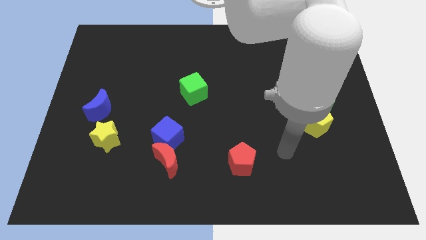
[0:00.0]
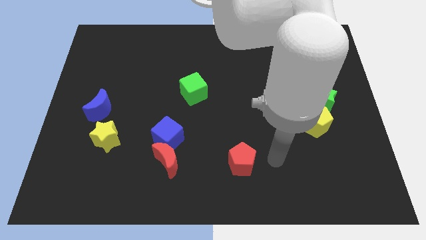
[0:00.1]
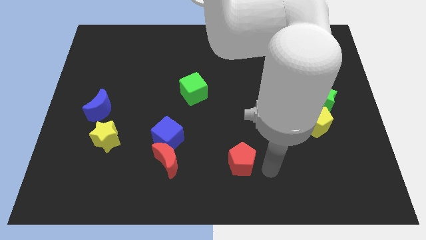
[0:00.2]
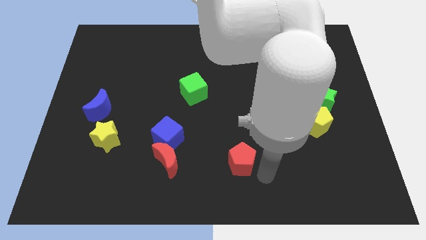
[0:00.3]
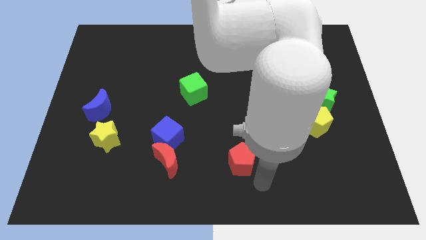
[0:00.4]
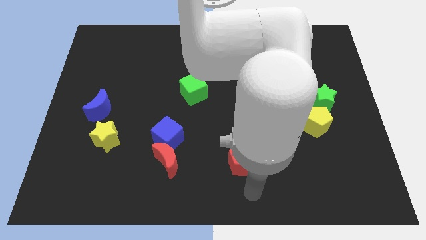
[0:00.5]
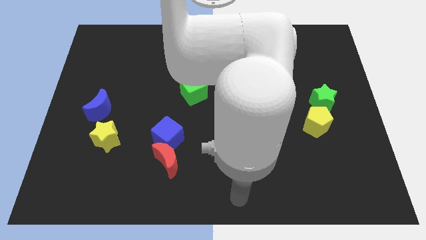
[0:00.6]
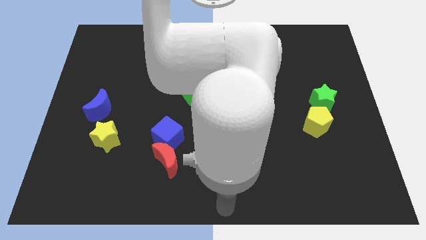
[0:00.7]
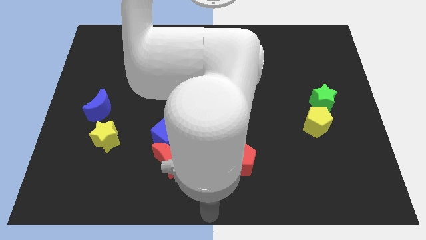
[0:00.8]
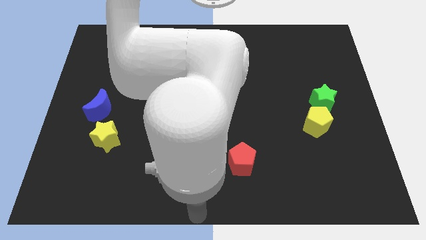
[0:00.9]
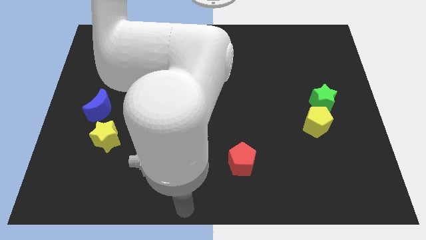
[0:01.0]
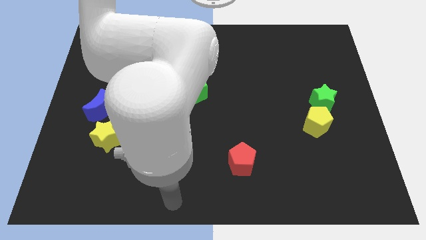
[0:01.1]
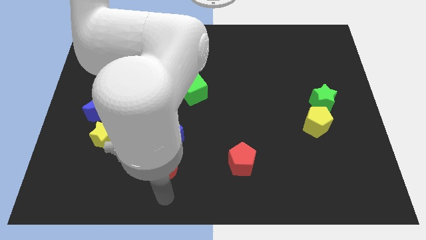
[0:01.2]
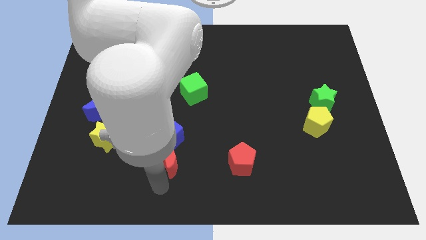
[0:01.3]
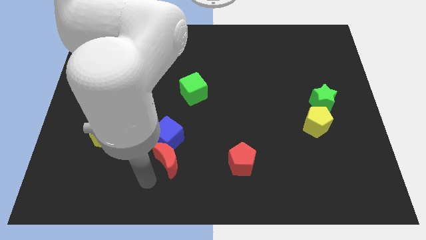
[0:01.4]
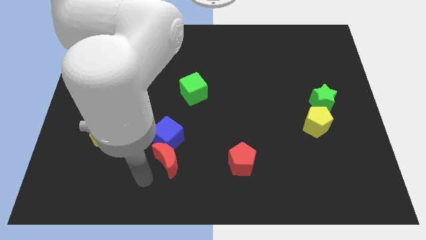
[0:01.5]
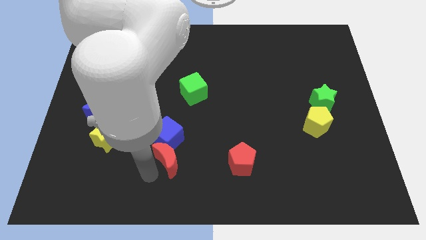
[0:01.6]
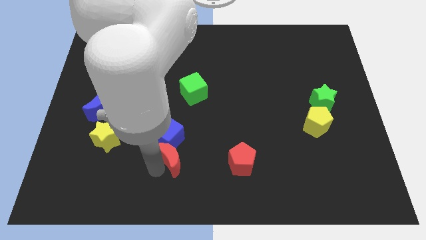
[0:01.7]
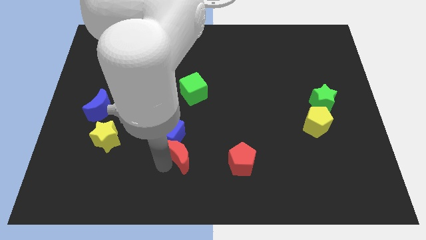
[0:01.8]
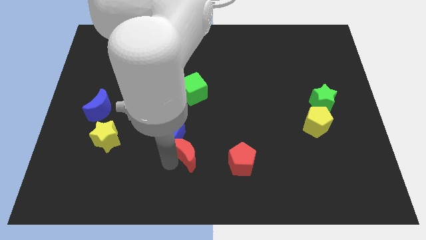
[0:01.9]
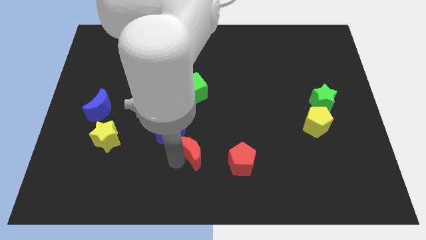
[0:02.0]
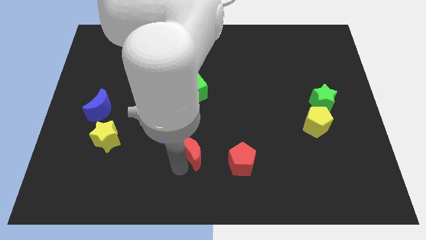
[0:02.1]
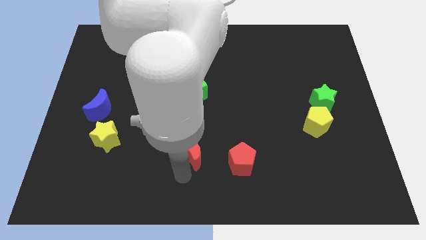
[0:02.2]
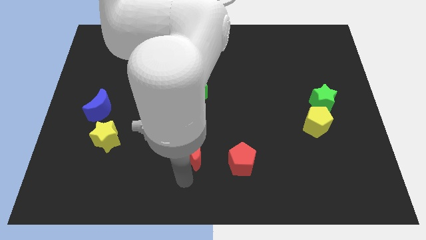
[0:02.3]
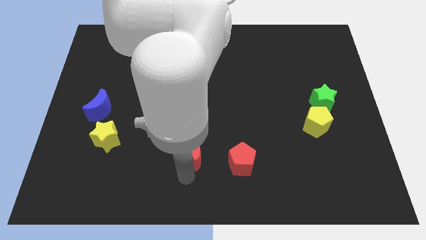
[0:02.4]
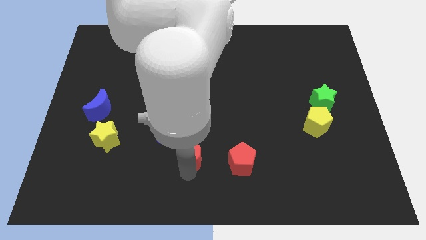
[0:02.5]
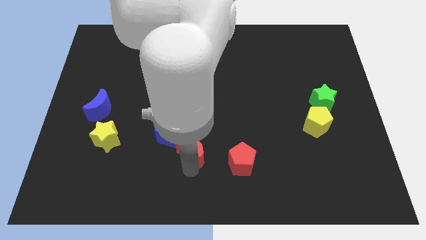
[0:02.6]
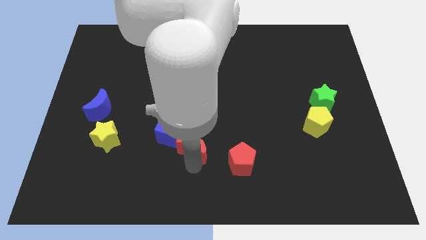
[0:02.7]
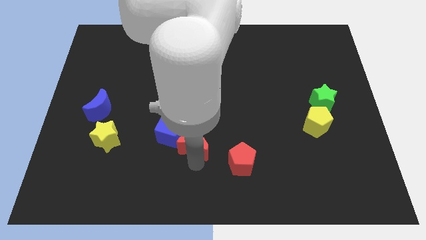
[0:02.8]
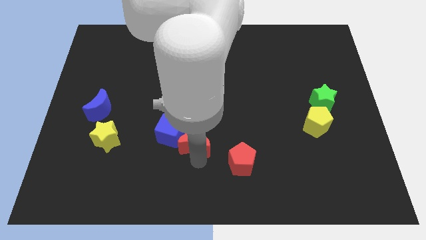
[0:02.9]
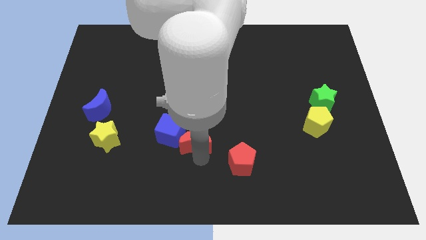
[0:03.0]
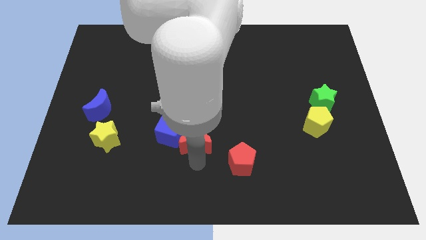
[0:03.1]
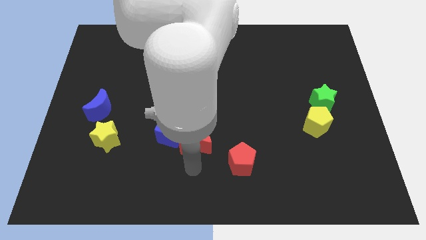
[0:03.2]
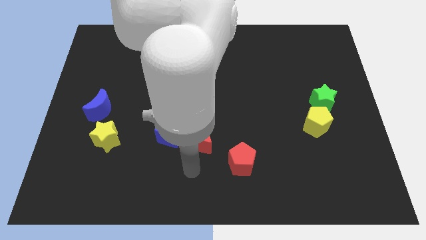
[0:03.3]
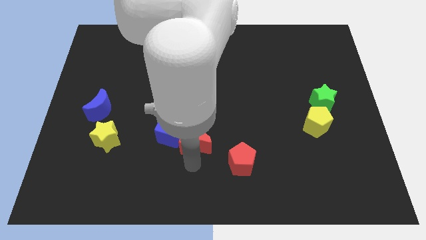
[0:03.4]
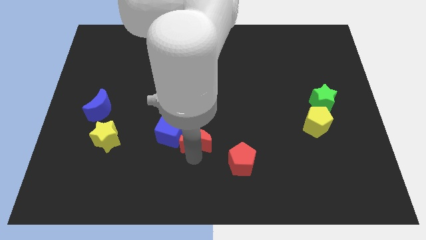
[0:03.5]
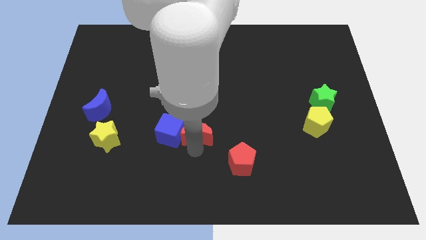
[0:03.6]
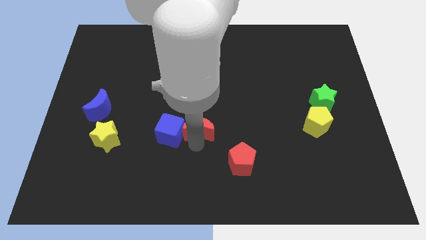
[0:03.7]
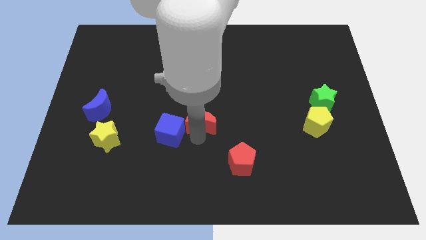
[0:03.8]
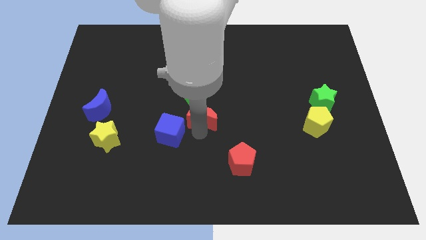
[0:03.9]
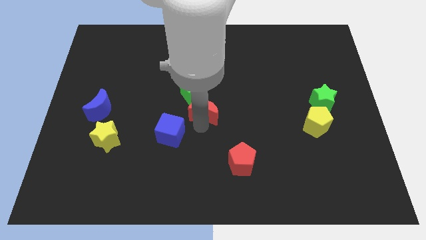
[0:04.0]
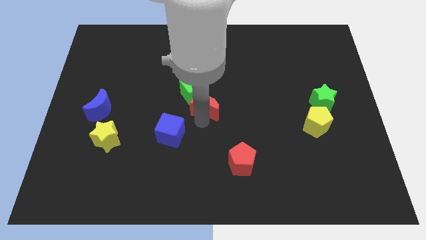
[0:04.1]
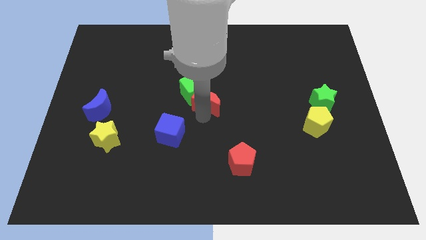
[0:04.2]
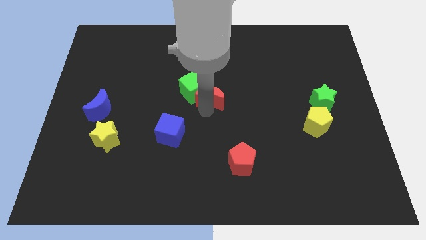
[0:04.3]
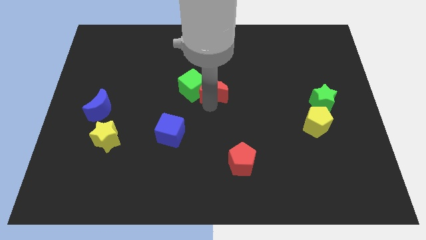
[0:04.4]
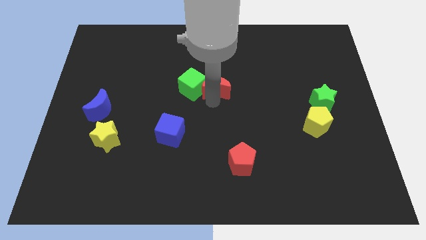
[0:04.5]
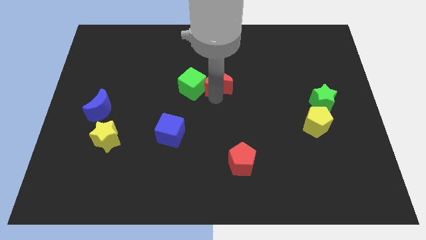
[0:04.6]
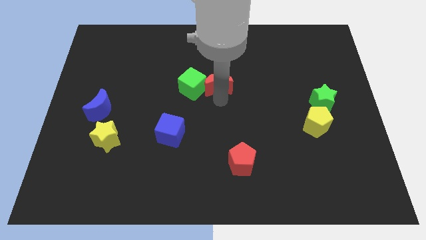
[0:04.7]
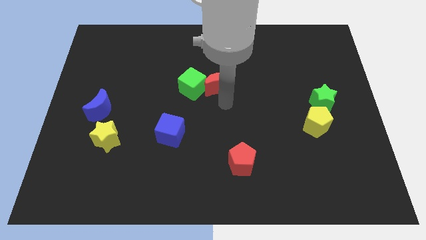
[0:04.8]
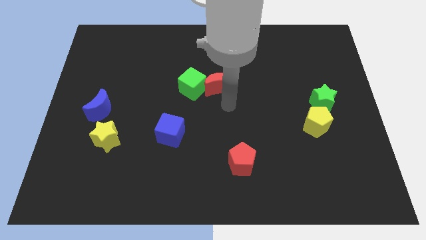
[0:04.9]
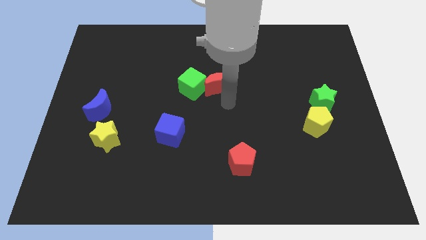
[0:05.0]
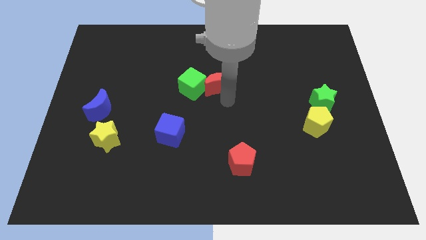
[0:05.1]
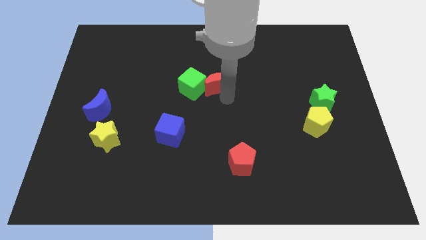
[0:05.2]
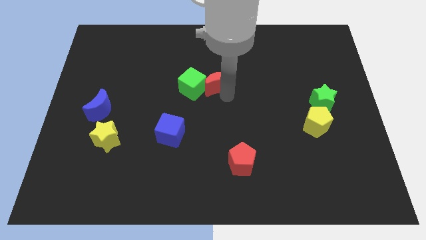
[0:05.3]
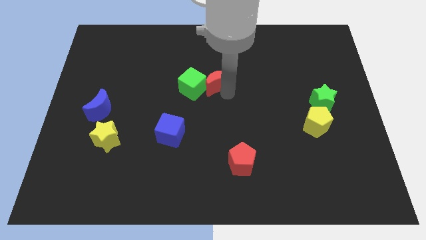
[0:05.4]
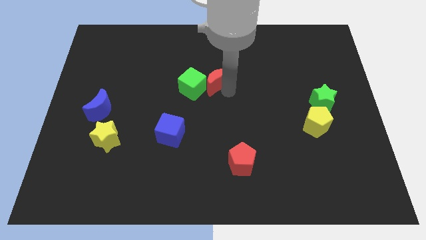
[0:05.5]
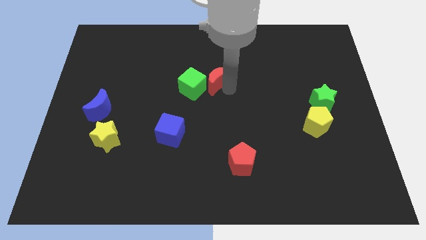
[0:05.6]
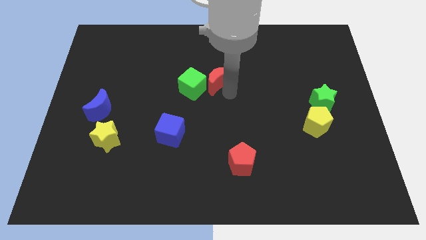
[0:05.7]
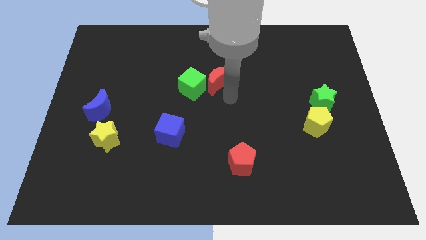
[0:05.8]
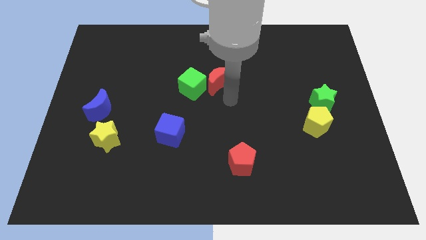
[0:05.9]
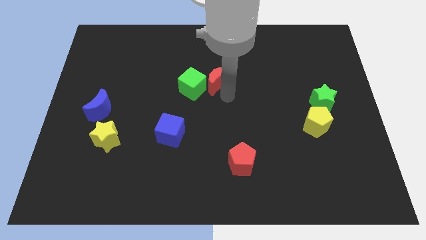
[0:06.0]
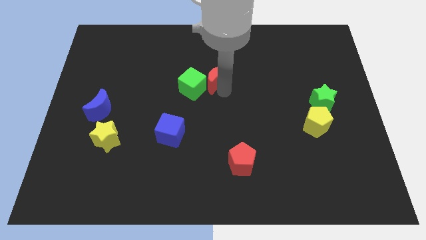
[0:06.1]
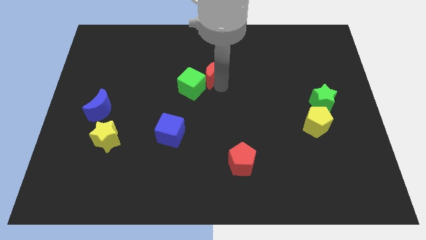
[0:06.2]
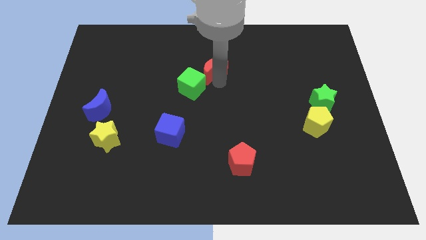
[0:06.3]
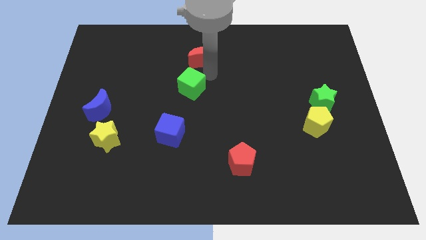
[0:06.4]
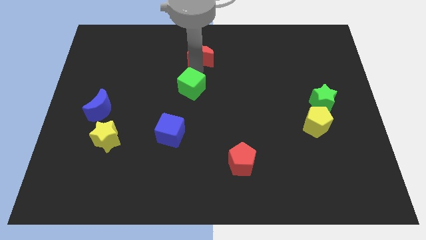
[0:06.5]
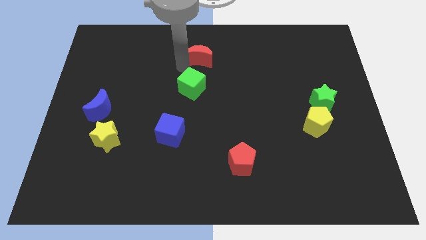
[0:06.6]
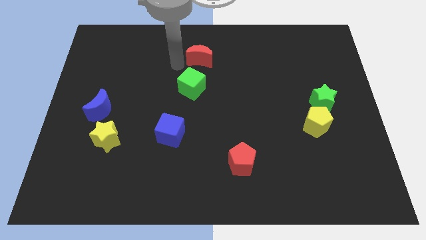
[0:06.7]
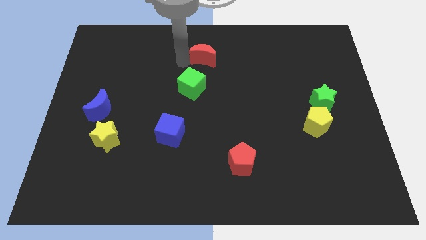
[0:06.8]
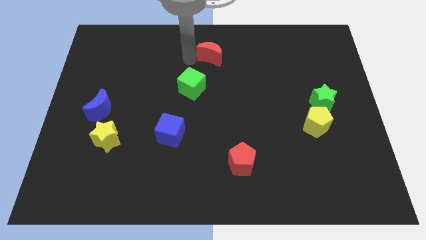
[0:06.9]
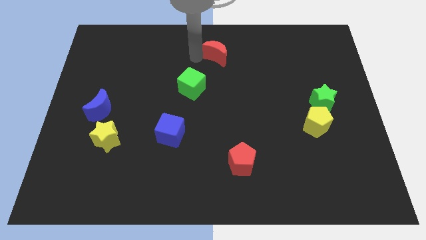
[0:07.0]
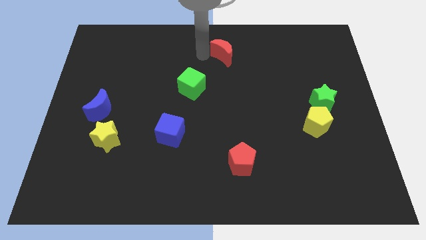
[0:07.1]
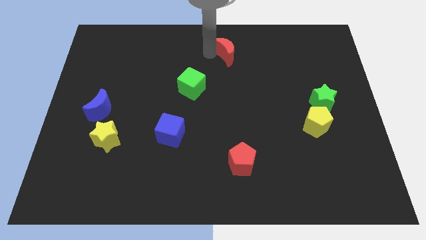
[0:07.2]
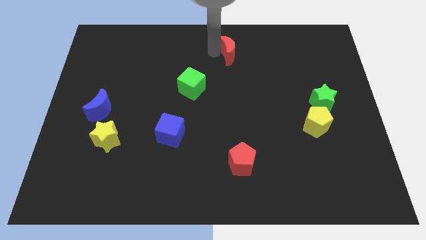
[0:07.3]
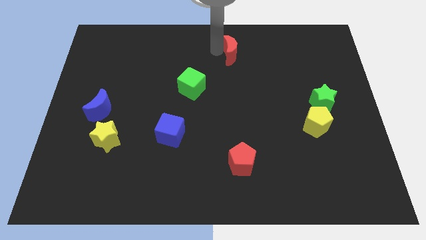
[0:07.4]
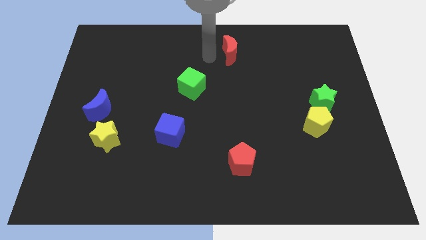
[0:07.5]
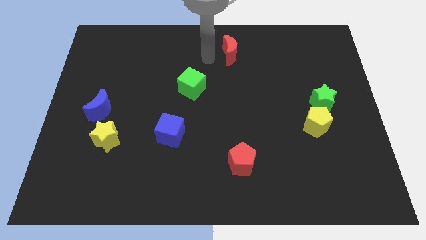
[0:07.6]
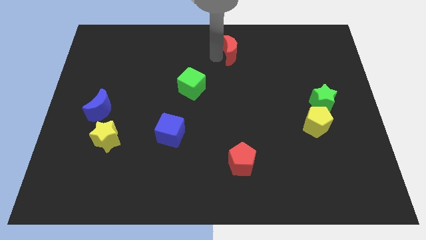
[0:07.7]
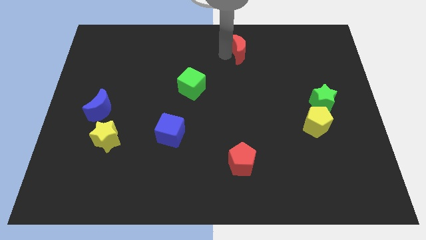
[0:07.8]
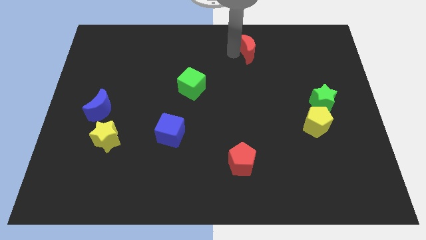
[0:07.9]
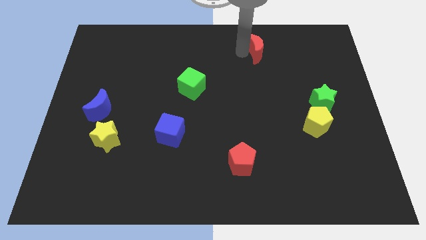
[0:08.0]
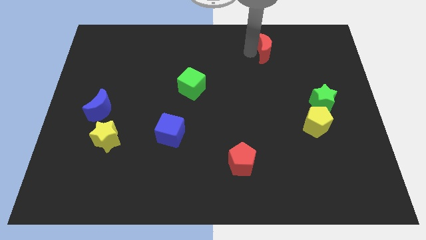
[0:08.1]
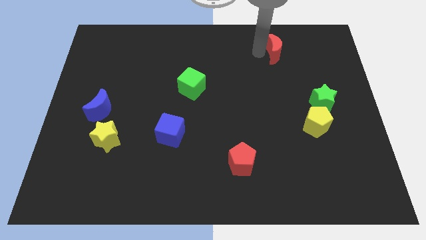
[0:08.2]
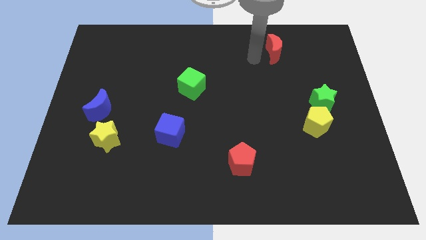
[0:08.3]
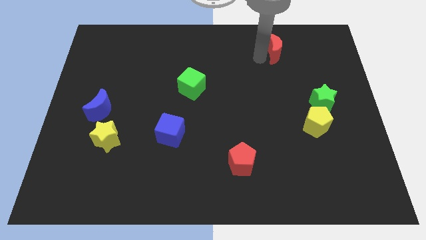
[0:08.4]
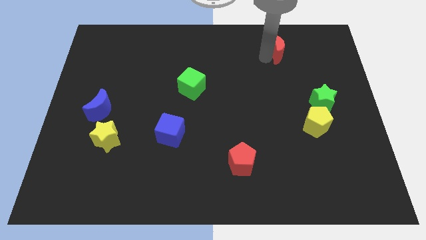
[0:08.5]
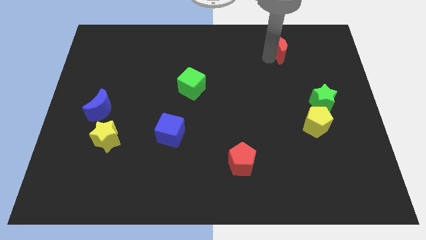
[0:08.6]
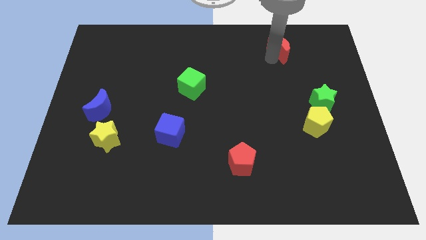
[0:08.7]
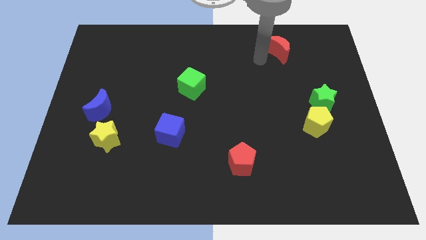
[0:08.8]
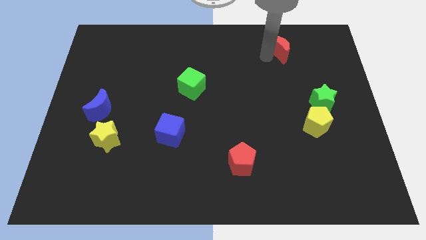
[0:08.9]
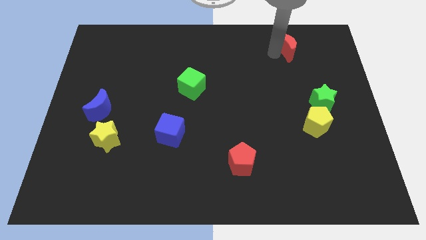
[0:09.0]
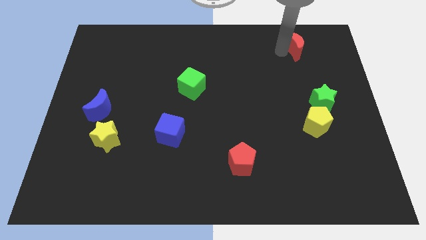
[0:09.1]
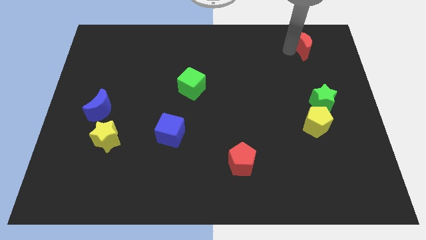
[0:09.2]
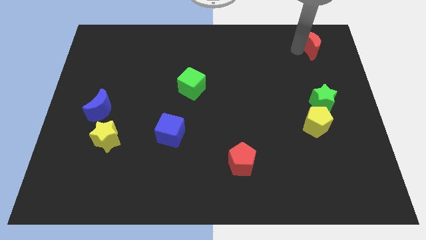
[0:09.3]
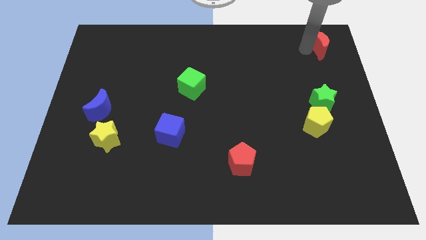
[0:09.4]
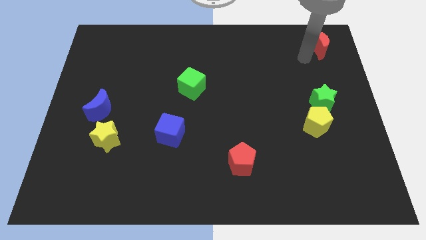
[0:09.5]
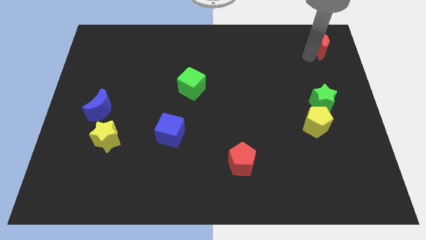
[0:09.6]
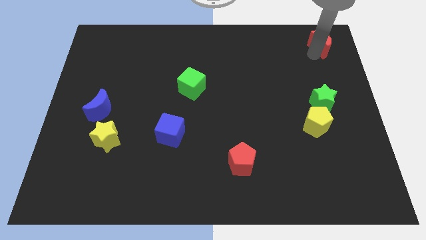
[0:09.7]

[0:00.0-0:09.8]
push the red moon to the top right of the board
